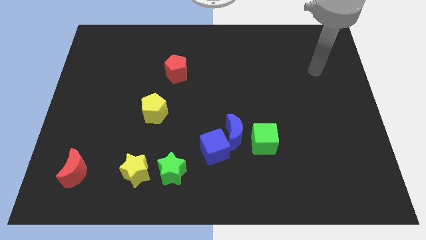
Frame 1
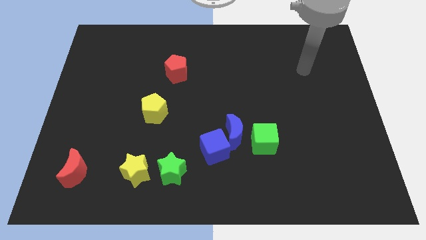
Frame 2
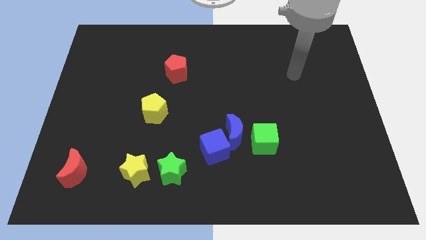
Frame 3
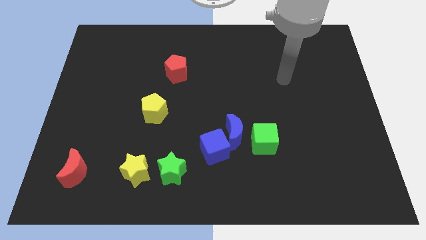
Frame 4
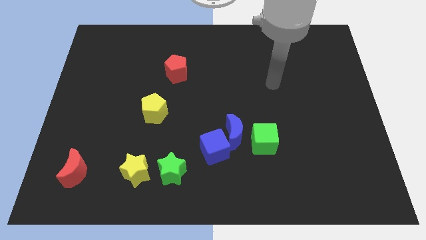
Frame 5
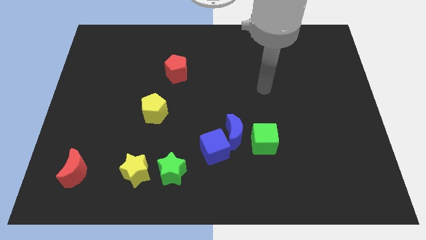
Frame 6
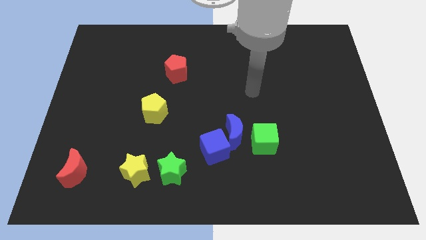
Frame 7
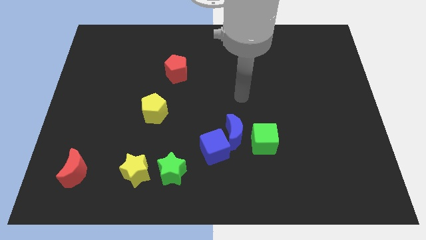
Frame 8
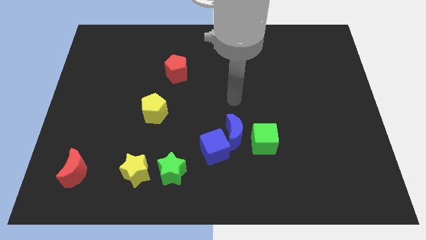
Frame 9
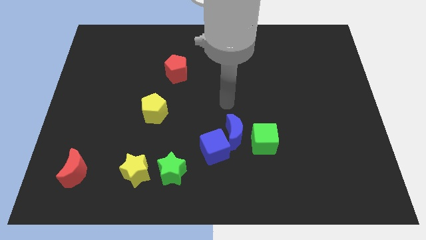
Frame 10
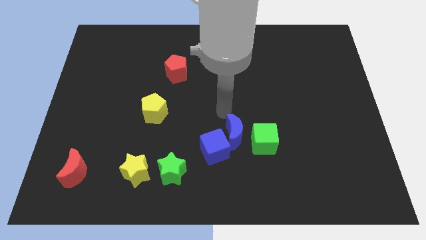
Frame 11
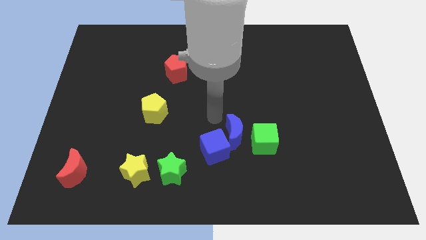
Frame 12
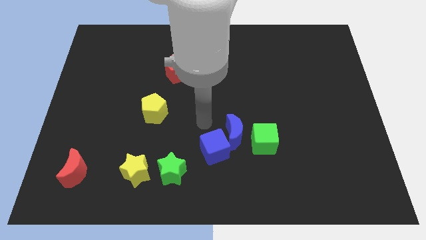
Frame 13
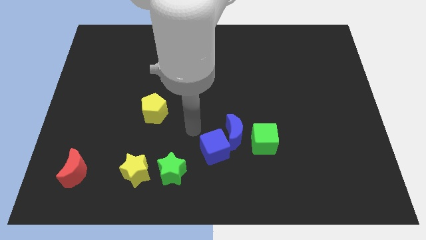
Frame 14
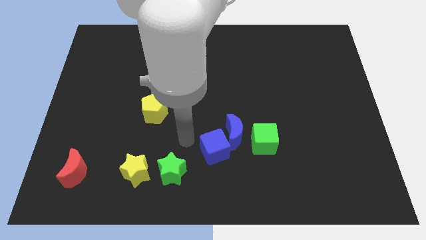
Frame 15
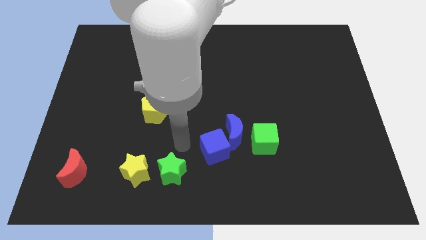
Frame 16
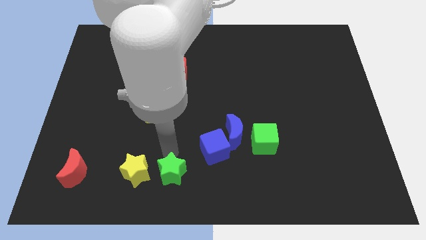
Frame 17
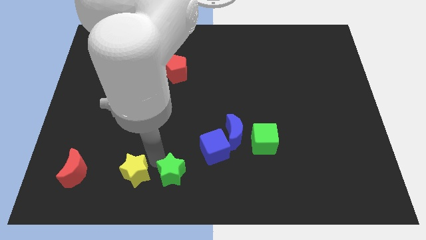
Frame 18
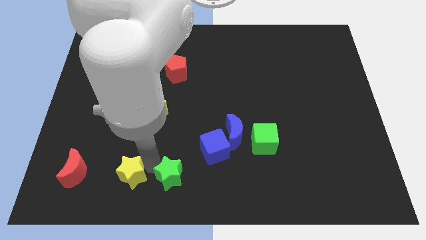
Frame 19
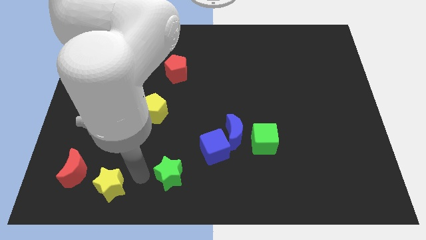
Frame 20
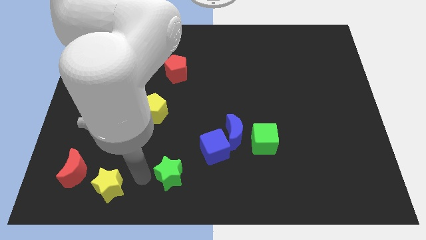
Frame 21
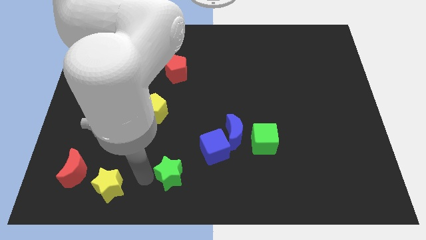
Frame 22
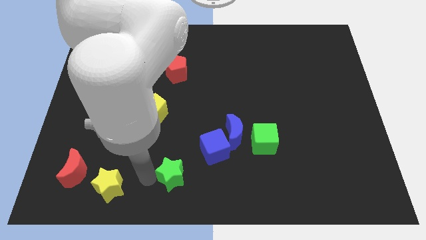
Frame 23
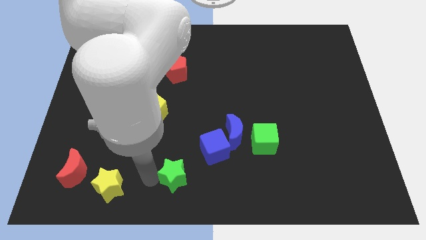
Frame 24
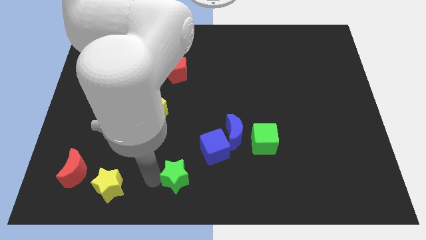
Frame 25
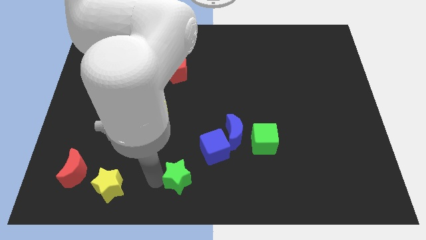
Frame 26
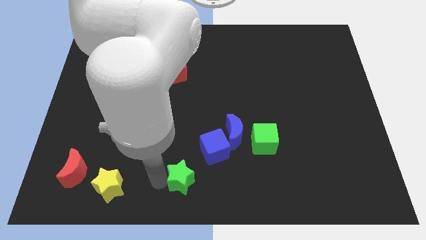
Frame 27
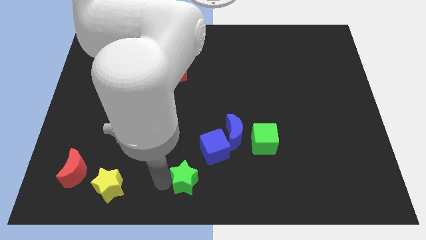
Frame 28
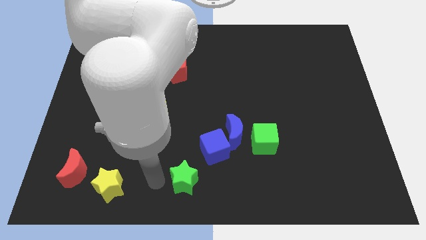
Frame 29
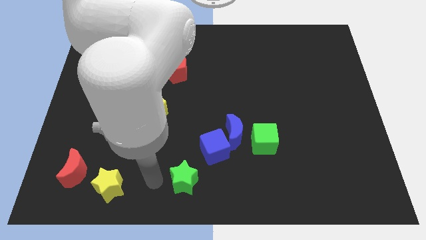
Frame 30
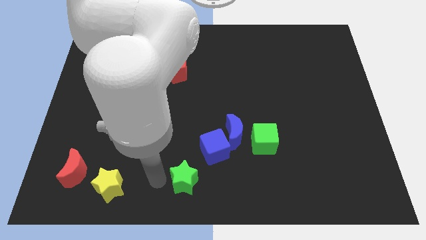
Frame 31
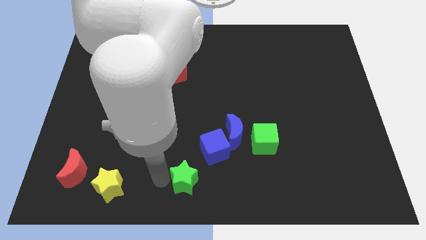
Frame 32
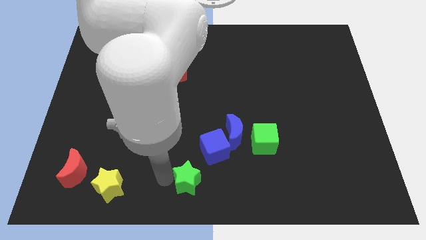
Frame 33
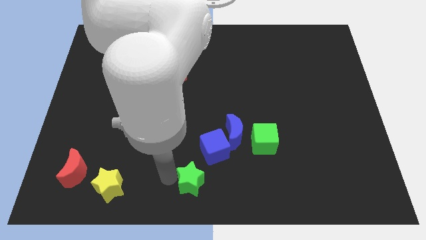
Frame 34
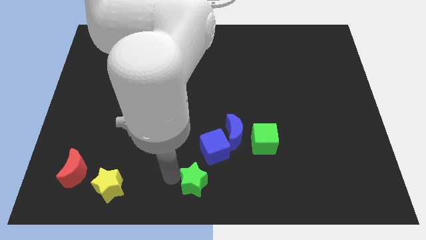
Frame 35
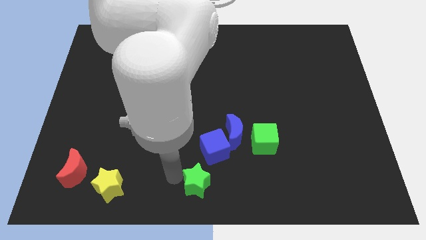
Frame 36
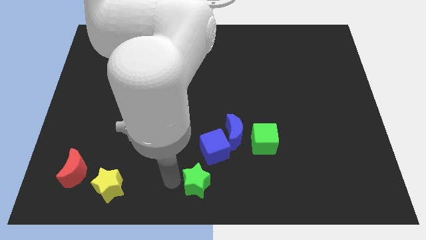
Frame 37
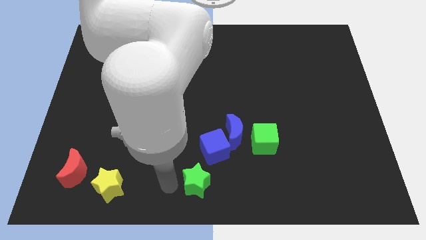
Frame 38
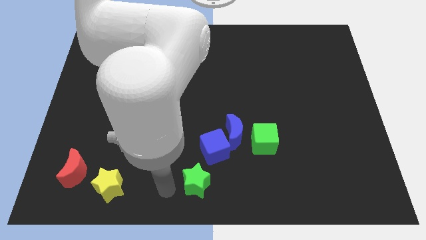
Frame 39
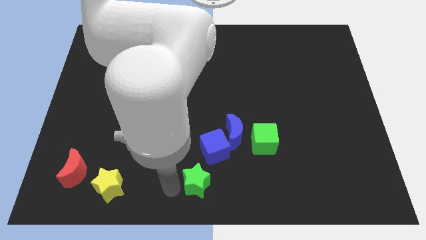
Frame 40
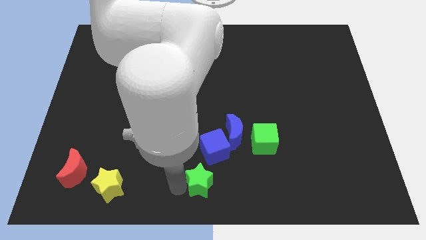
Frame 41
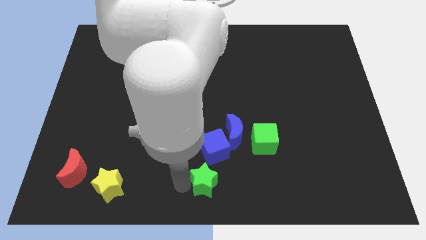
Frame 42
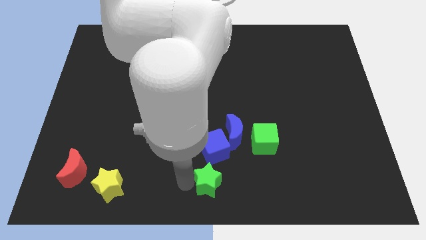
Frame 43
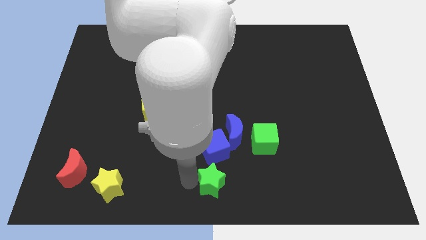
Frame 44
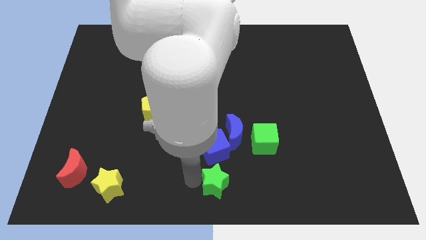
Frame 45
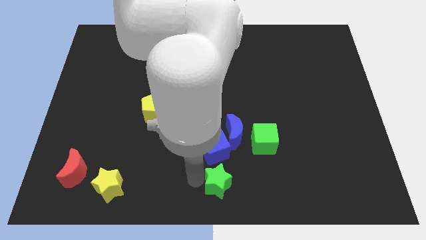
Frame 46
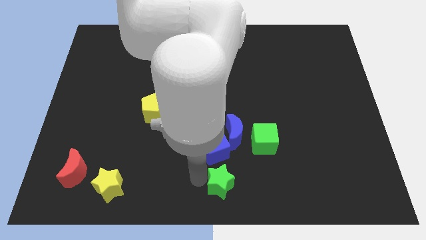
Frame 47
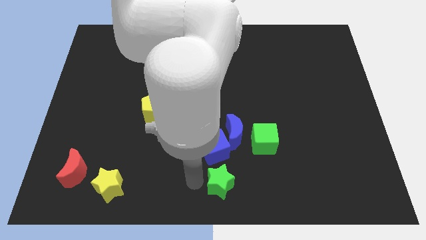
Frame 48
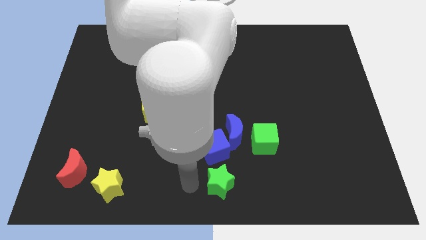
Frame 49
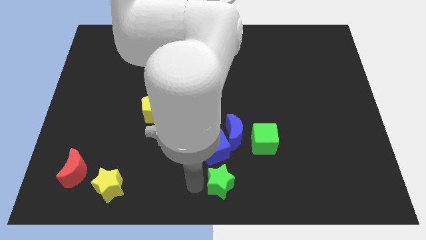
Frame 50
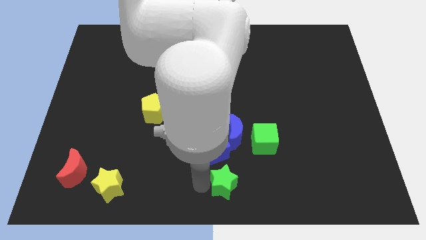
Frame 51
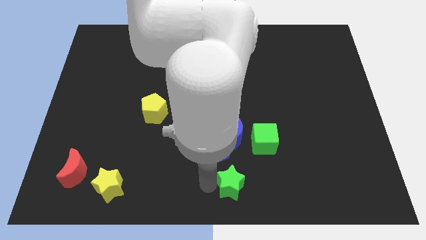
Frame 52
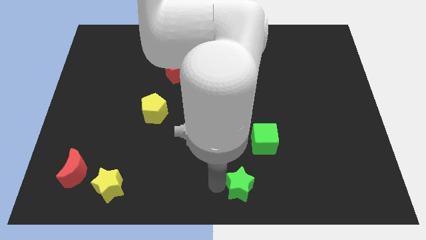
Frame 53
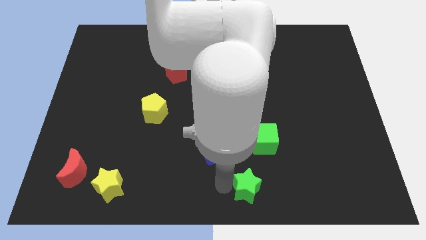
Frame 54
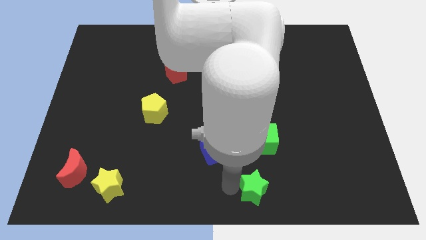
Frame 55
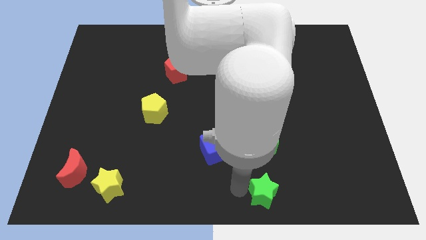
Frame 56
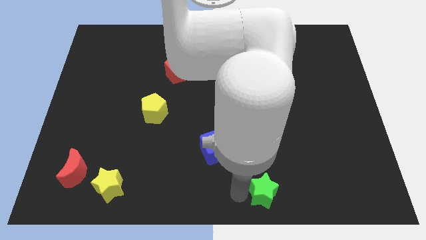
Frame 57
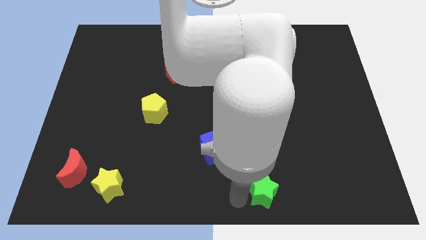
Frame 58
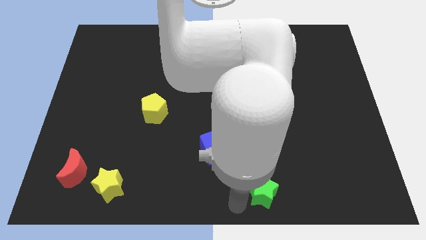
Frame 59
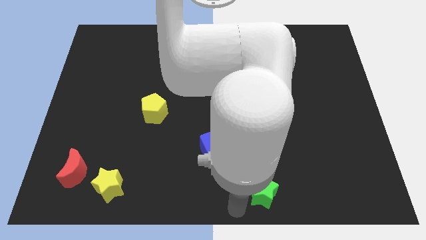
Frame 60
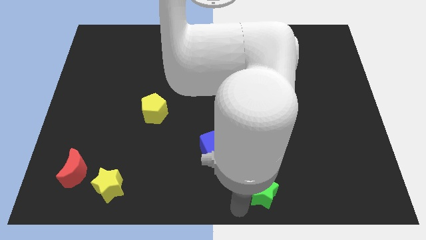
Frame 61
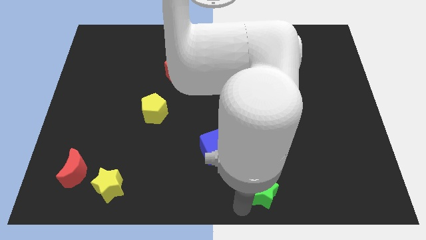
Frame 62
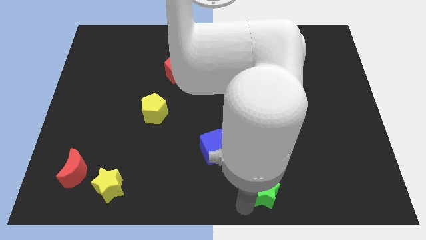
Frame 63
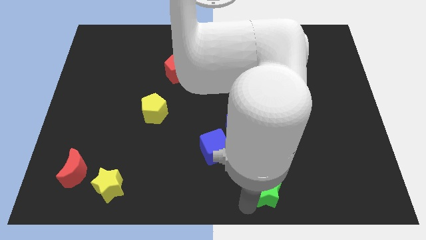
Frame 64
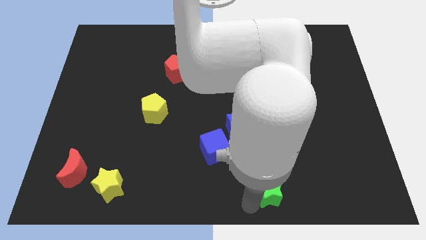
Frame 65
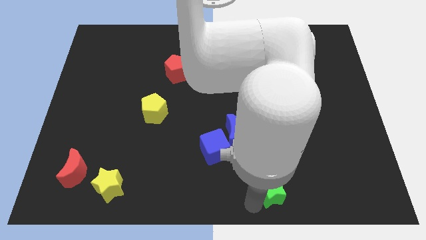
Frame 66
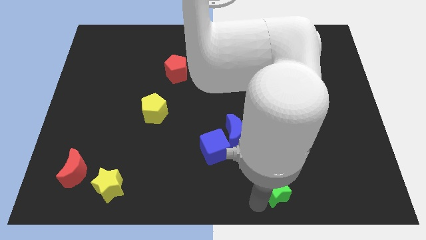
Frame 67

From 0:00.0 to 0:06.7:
slide the green star right

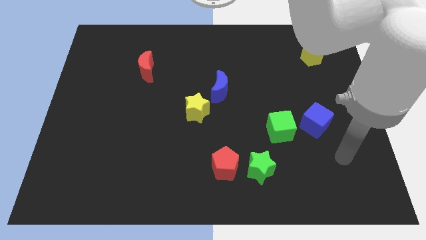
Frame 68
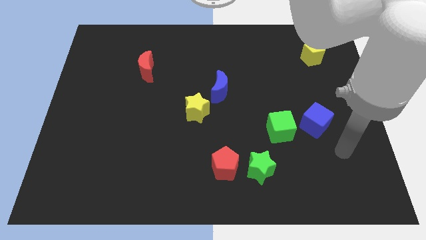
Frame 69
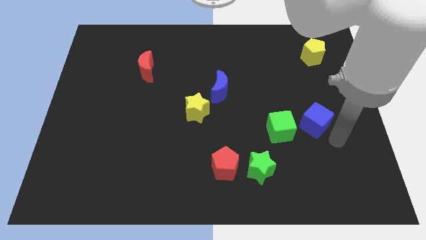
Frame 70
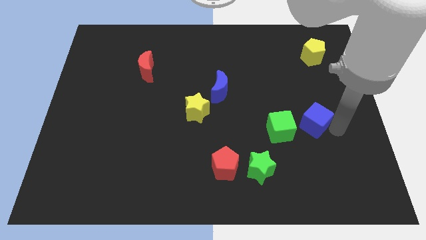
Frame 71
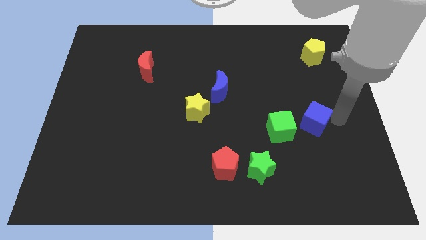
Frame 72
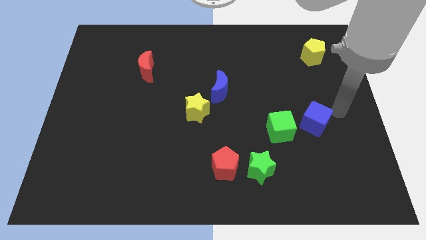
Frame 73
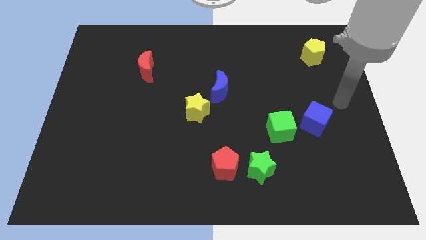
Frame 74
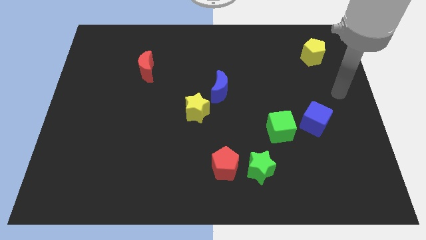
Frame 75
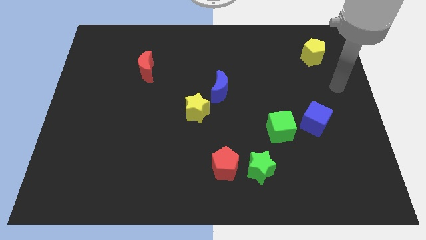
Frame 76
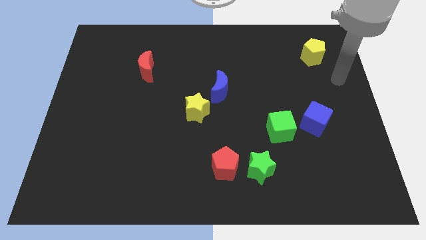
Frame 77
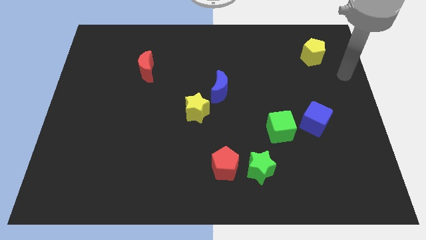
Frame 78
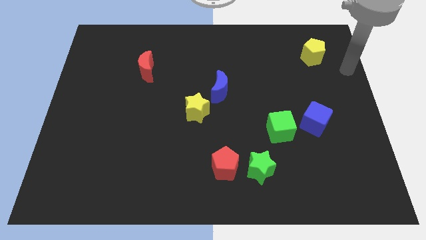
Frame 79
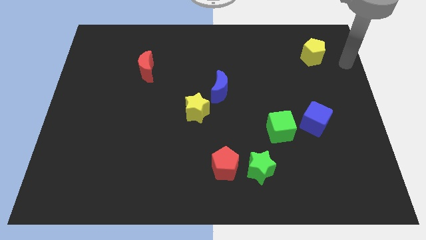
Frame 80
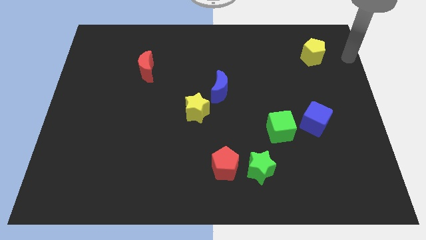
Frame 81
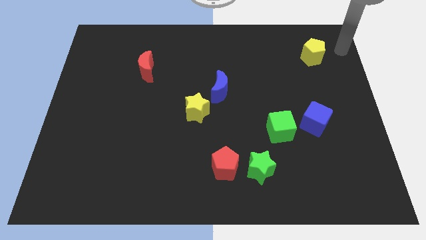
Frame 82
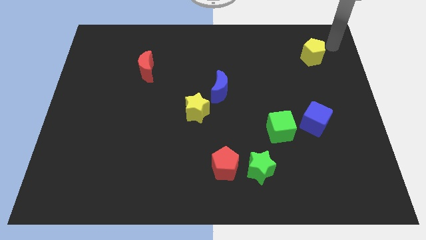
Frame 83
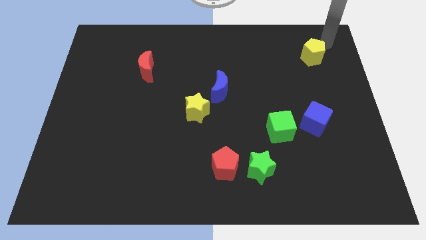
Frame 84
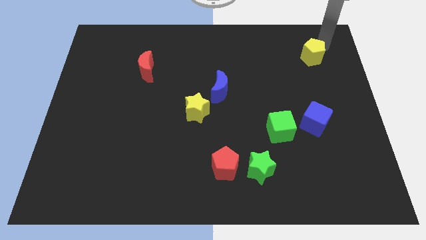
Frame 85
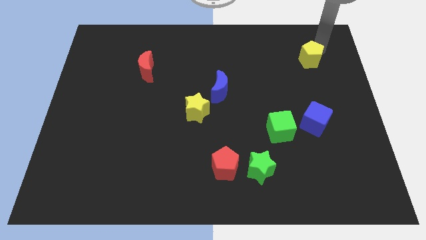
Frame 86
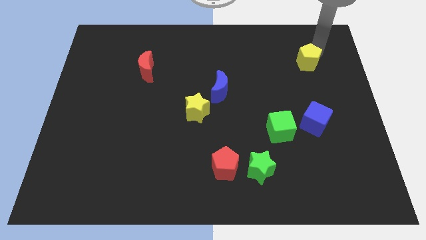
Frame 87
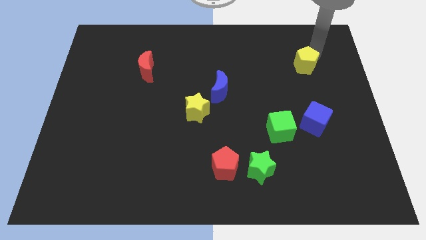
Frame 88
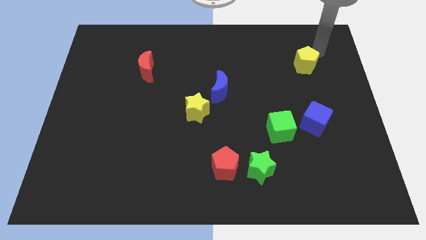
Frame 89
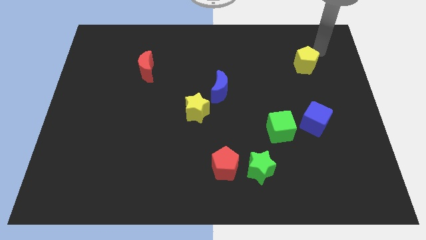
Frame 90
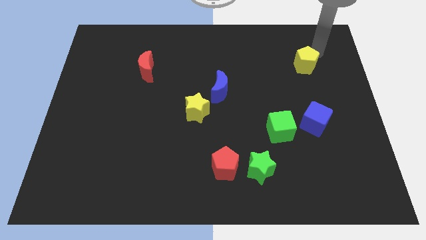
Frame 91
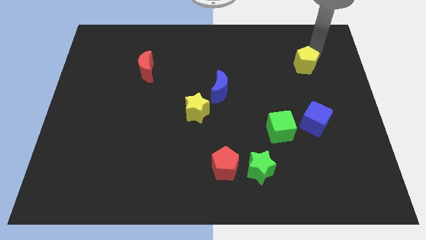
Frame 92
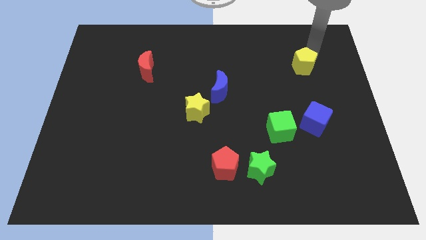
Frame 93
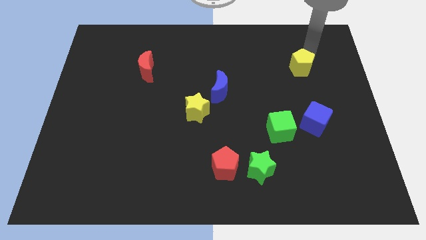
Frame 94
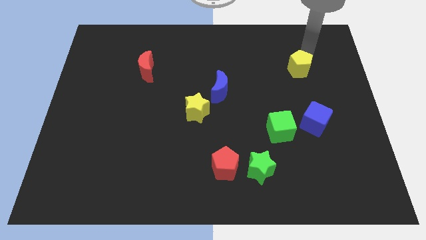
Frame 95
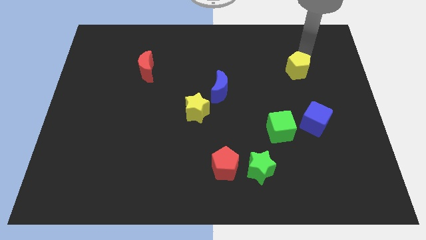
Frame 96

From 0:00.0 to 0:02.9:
push the yellow pentagon down and then to the left a little
